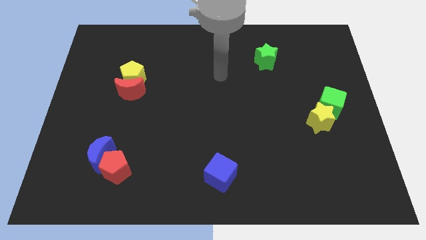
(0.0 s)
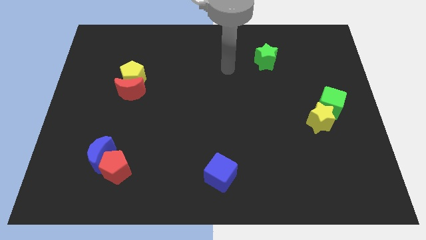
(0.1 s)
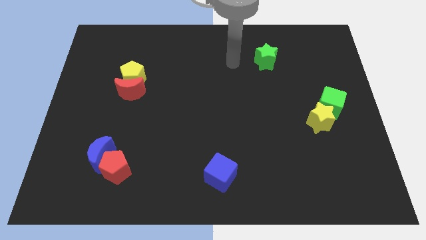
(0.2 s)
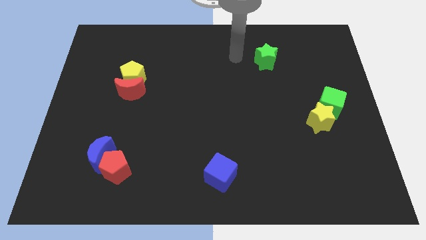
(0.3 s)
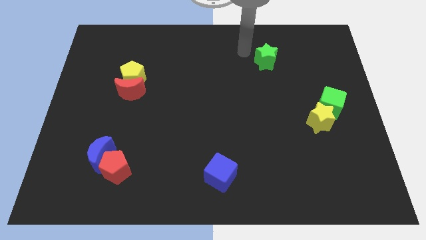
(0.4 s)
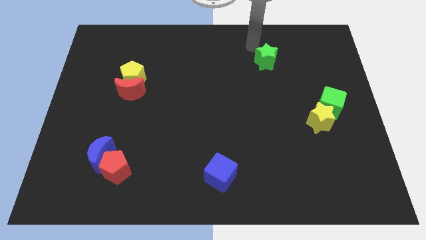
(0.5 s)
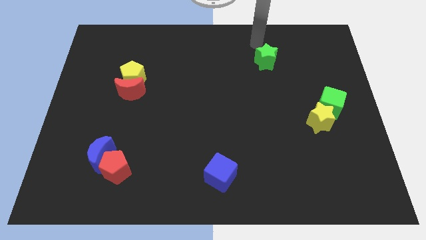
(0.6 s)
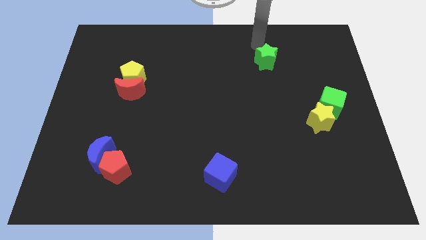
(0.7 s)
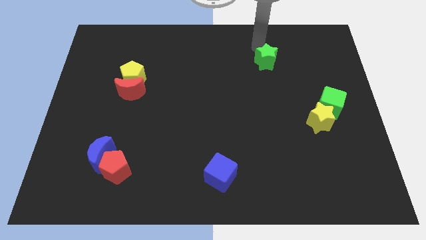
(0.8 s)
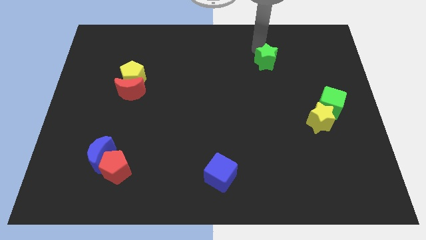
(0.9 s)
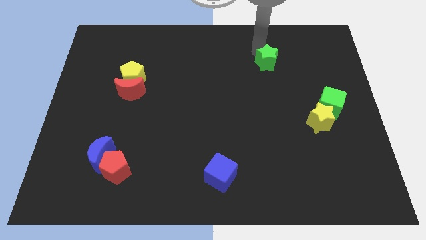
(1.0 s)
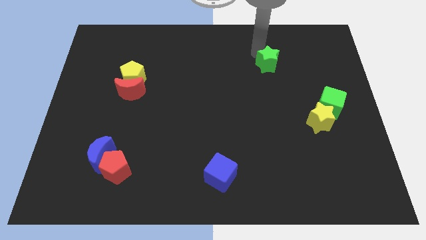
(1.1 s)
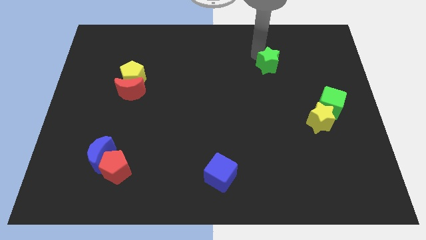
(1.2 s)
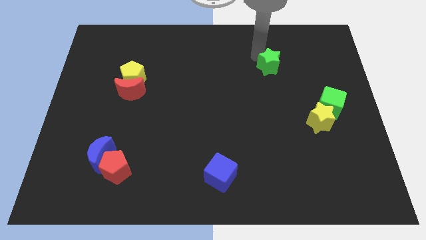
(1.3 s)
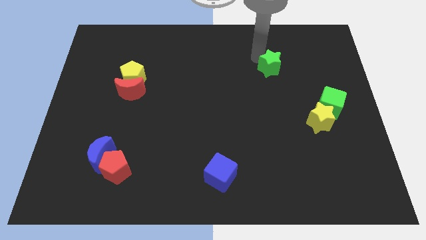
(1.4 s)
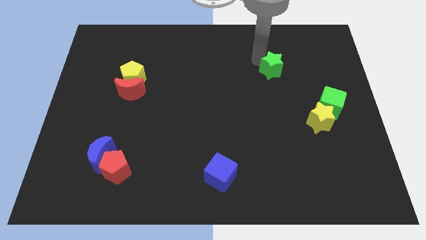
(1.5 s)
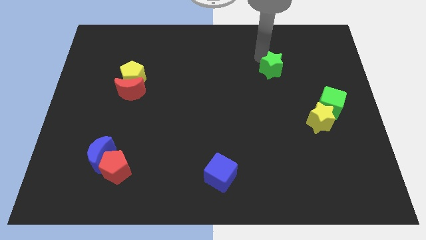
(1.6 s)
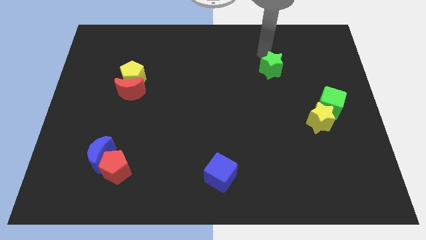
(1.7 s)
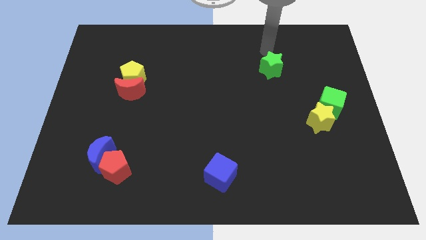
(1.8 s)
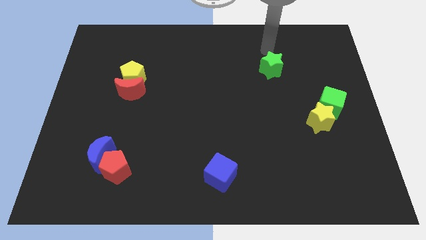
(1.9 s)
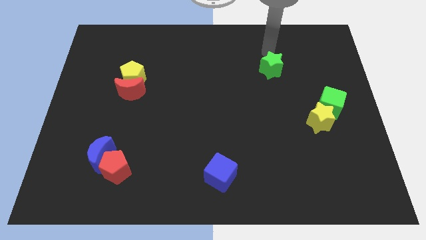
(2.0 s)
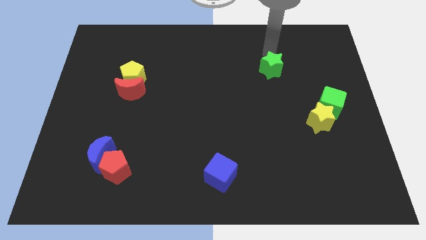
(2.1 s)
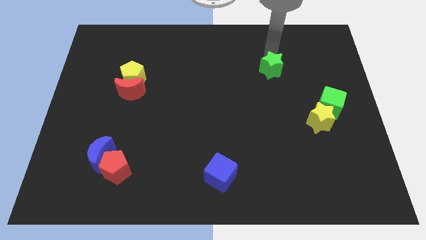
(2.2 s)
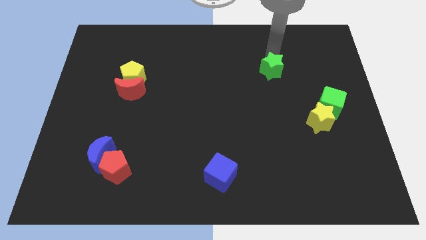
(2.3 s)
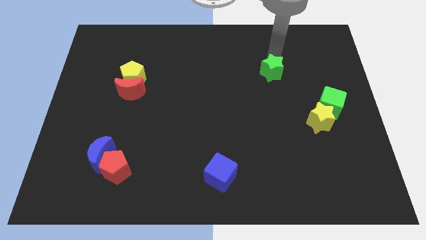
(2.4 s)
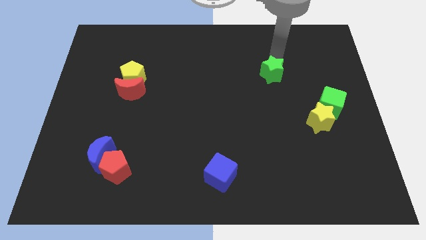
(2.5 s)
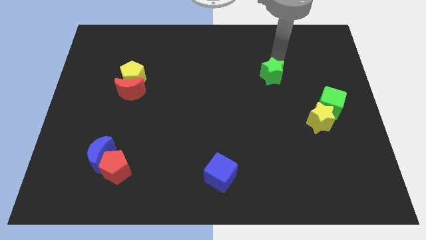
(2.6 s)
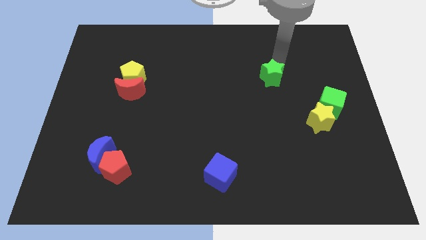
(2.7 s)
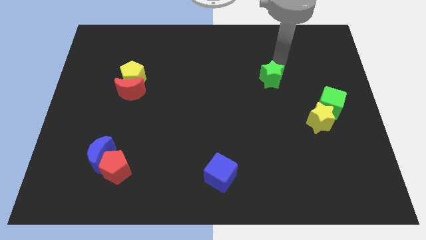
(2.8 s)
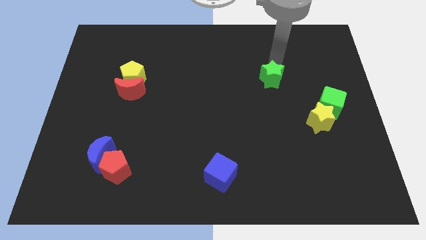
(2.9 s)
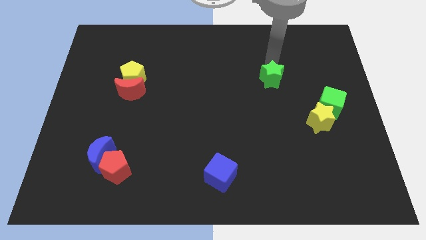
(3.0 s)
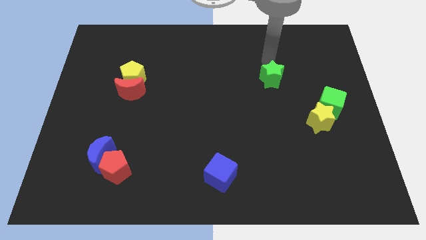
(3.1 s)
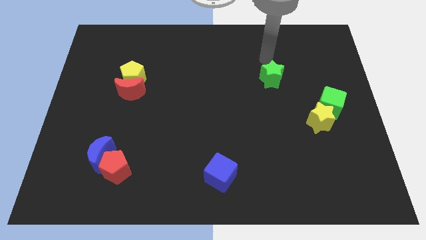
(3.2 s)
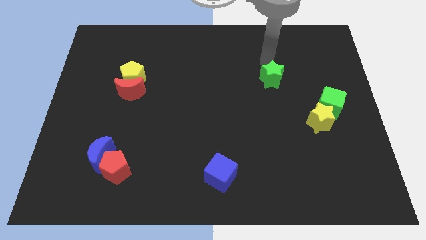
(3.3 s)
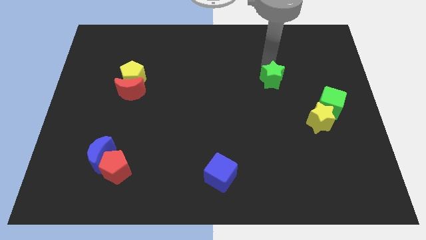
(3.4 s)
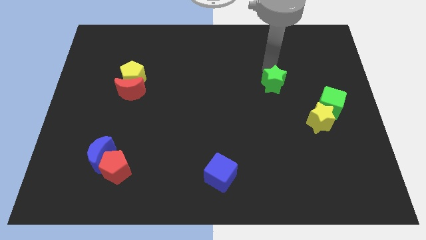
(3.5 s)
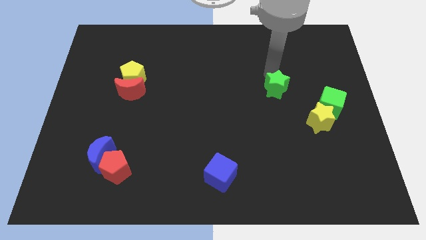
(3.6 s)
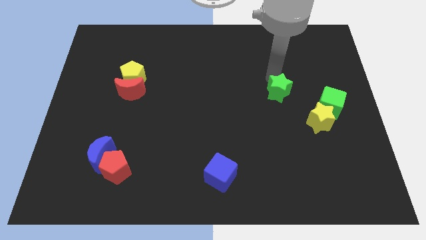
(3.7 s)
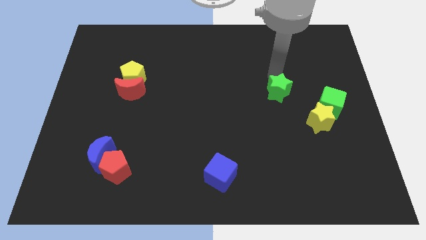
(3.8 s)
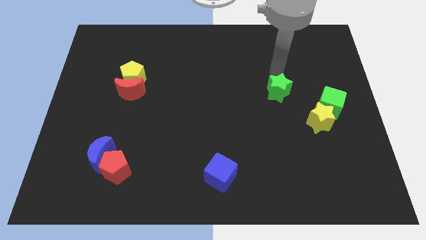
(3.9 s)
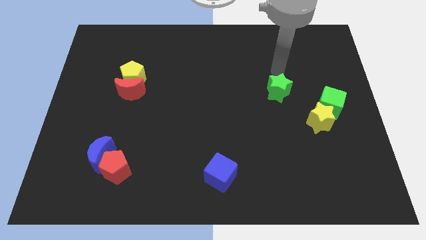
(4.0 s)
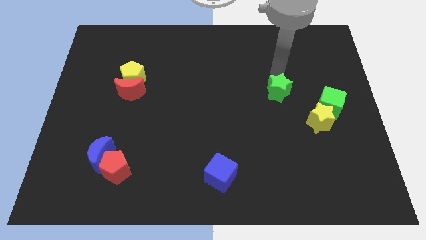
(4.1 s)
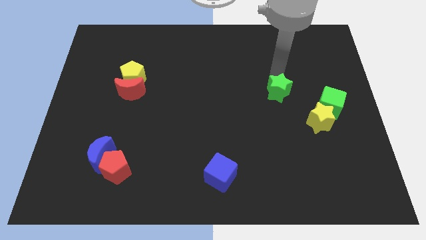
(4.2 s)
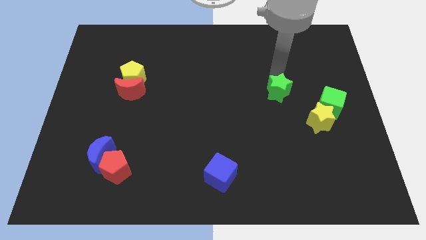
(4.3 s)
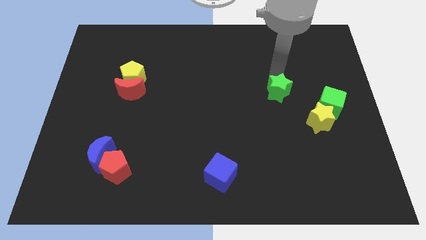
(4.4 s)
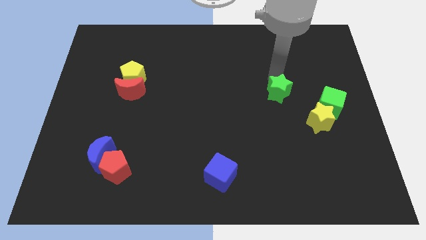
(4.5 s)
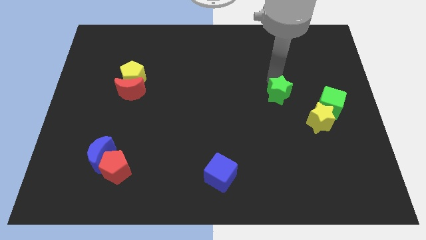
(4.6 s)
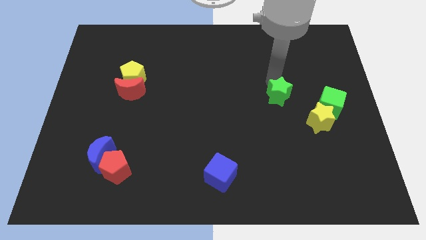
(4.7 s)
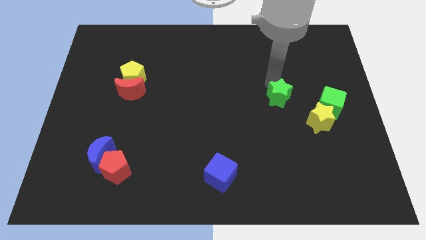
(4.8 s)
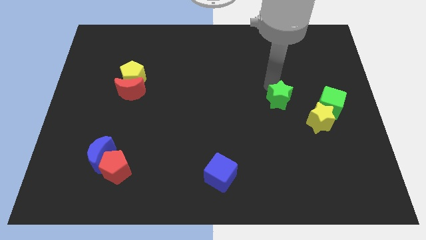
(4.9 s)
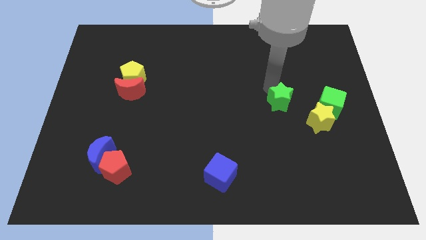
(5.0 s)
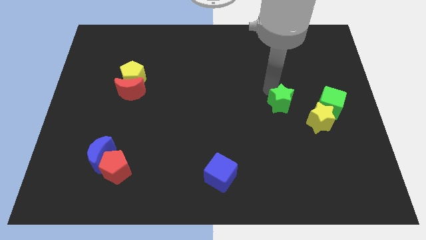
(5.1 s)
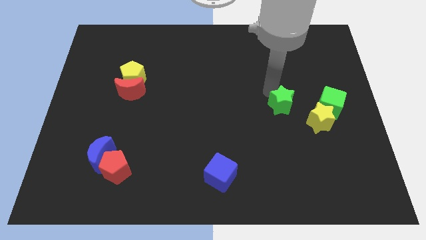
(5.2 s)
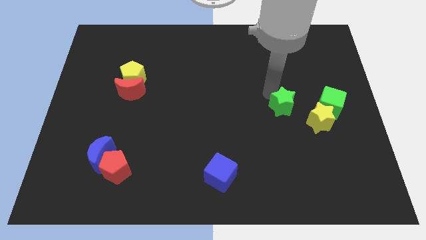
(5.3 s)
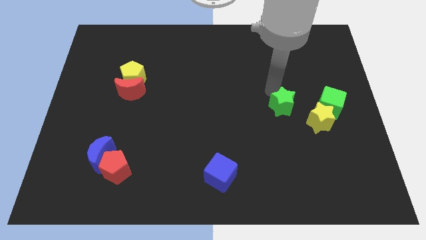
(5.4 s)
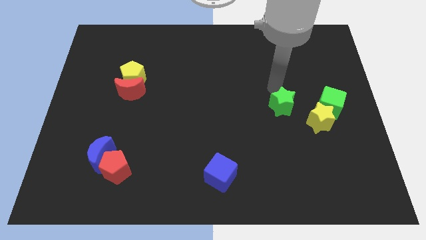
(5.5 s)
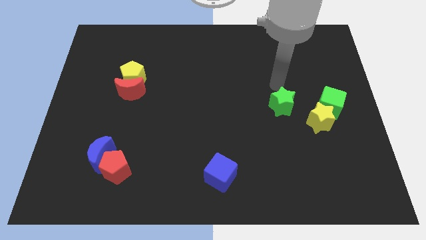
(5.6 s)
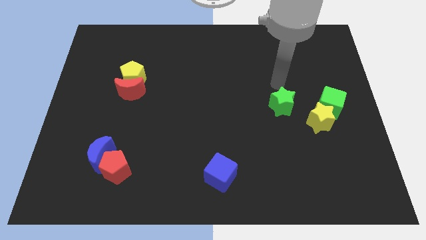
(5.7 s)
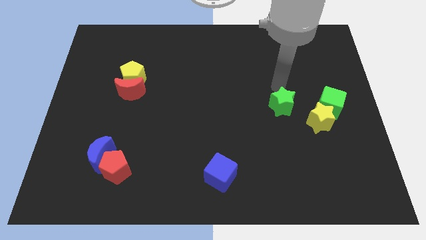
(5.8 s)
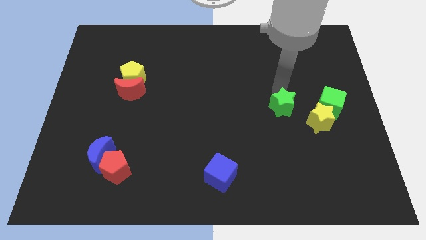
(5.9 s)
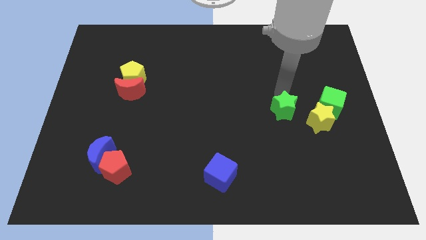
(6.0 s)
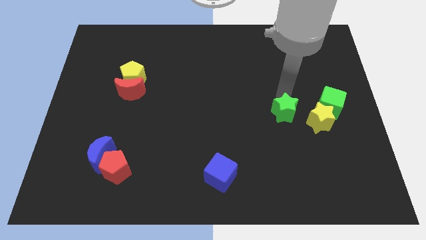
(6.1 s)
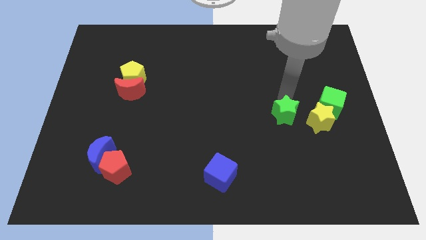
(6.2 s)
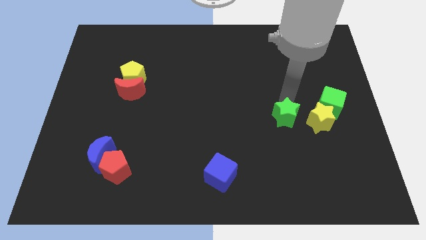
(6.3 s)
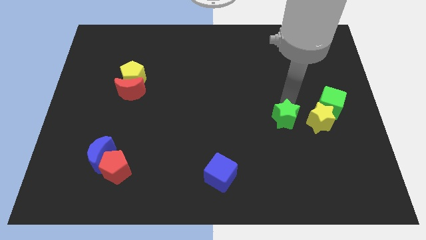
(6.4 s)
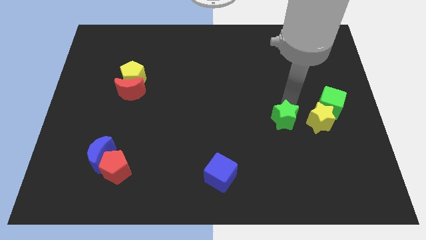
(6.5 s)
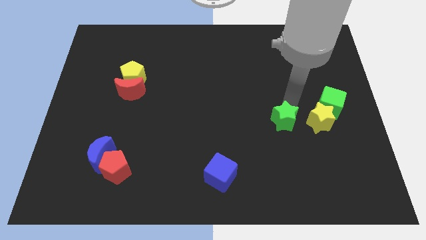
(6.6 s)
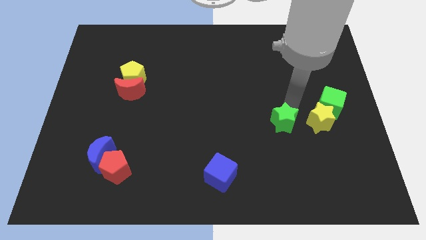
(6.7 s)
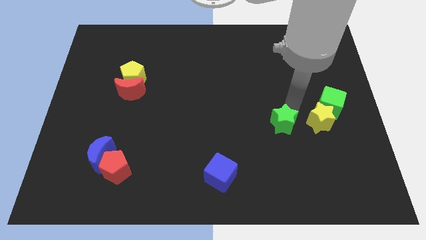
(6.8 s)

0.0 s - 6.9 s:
push the green star down

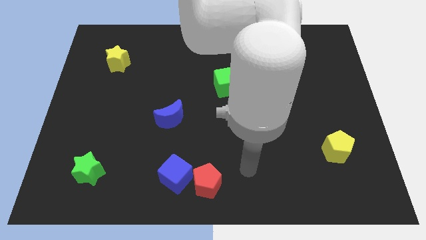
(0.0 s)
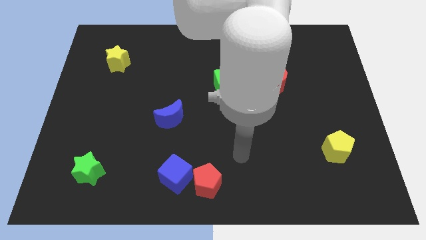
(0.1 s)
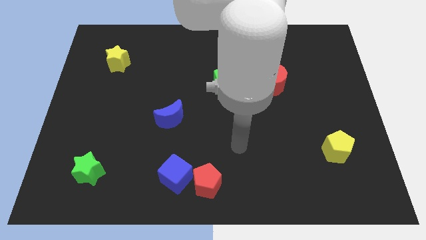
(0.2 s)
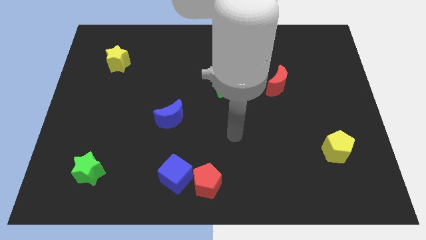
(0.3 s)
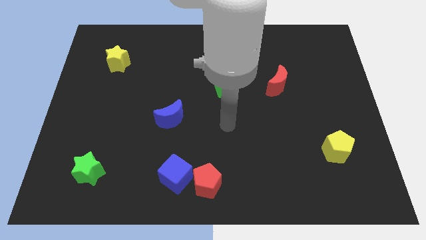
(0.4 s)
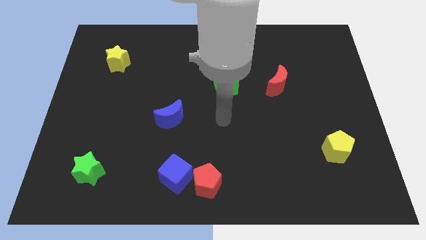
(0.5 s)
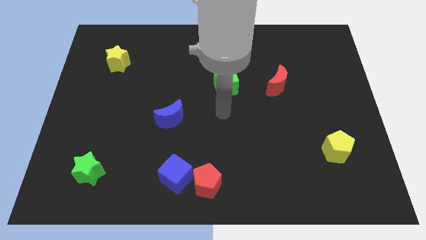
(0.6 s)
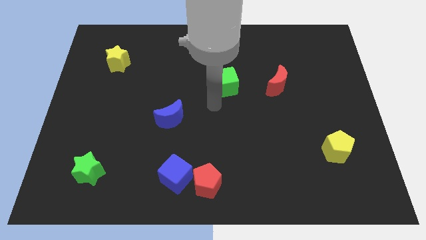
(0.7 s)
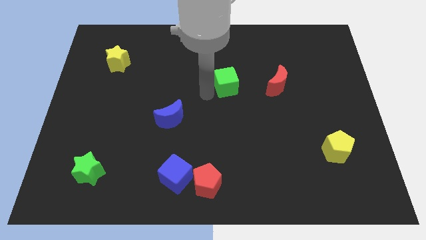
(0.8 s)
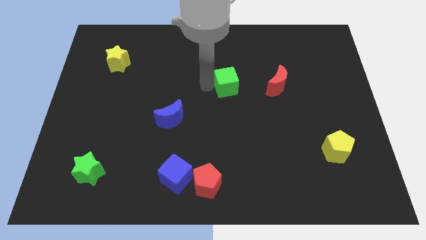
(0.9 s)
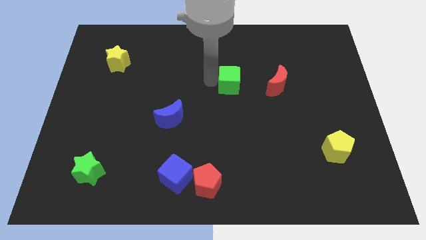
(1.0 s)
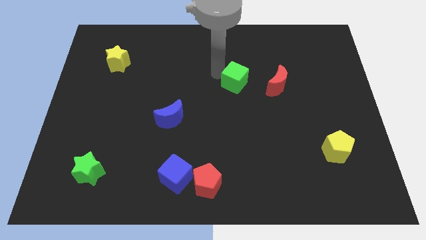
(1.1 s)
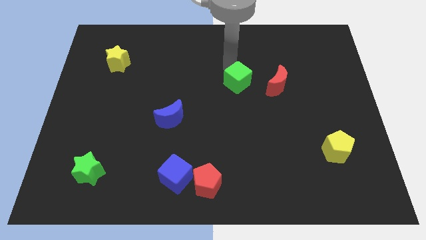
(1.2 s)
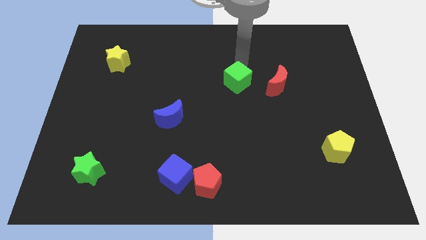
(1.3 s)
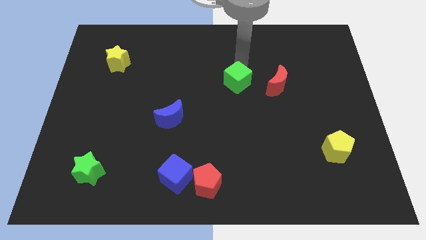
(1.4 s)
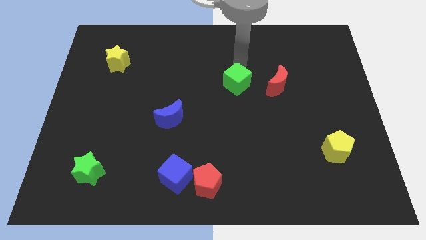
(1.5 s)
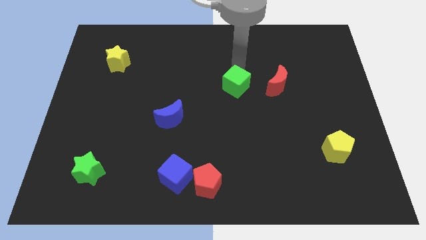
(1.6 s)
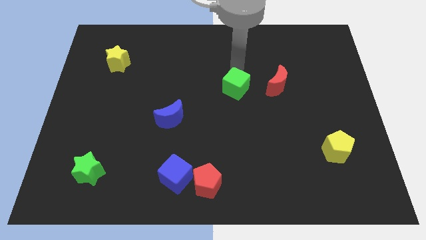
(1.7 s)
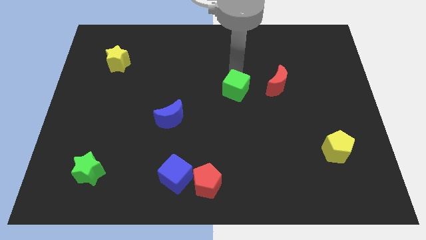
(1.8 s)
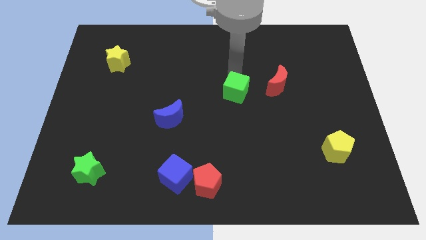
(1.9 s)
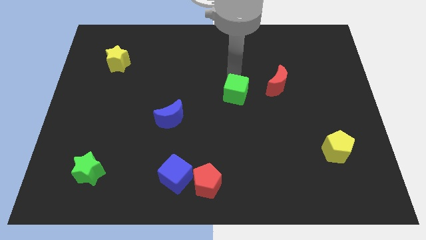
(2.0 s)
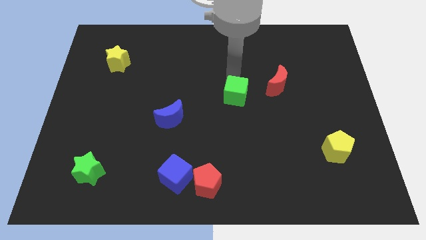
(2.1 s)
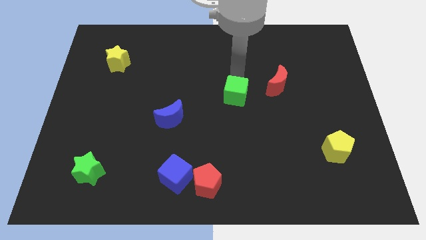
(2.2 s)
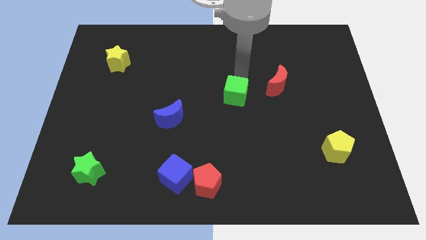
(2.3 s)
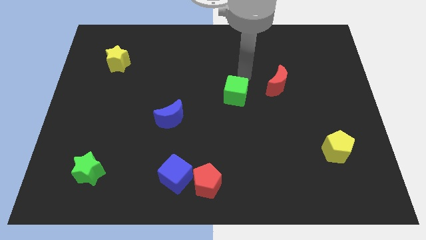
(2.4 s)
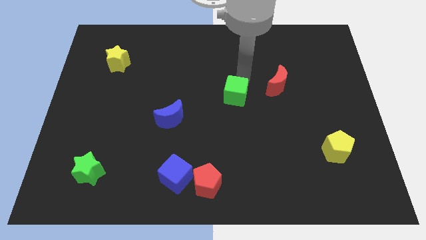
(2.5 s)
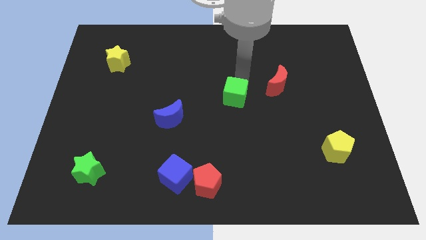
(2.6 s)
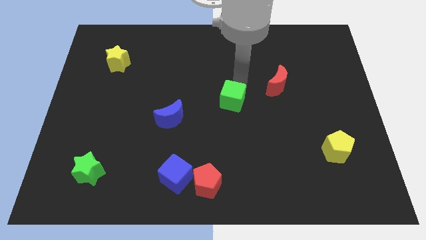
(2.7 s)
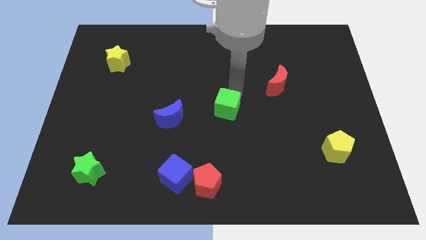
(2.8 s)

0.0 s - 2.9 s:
slightly move the green cube downwards
